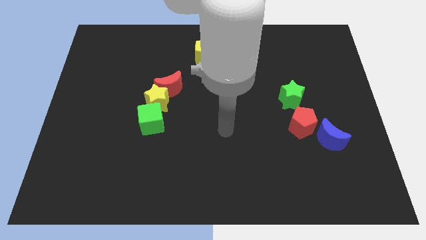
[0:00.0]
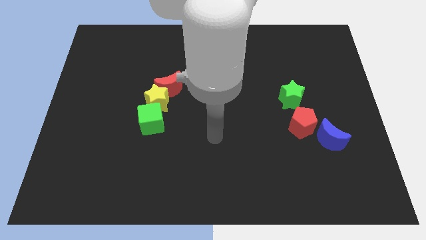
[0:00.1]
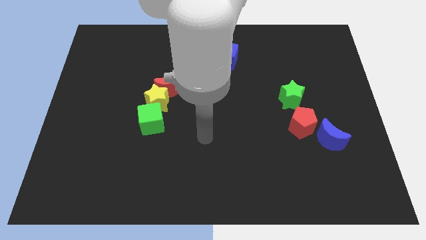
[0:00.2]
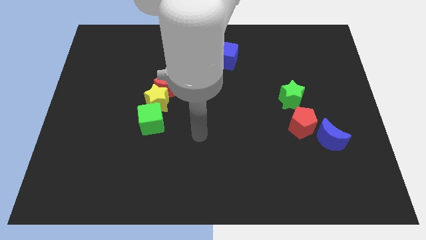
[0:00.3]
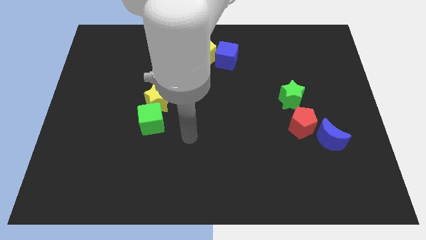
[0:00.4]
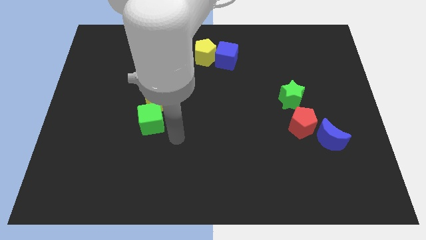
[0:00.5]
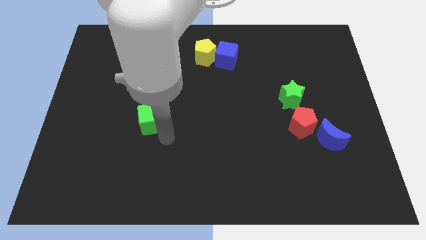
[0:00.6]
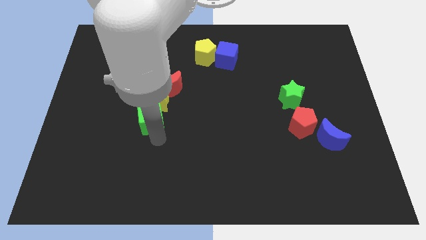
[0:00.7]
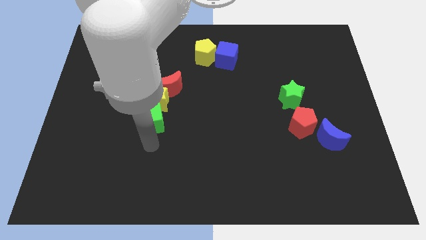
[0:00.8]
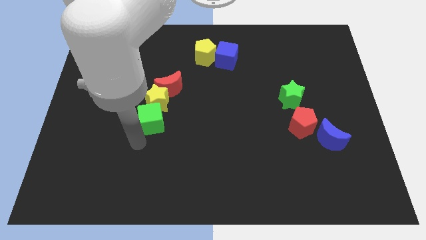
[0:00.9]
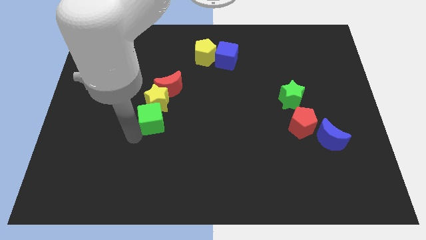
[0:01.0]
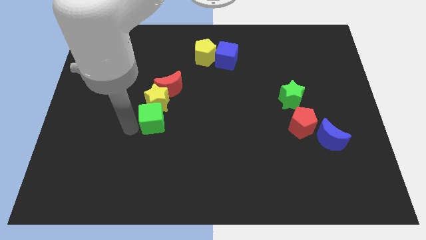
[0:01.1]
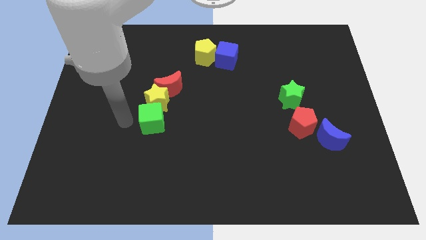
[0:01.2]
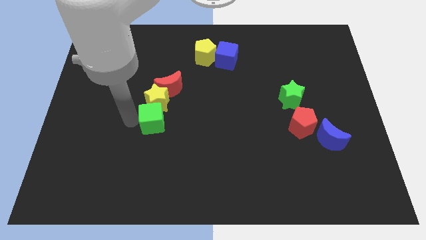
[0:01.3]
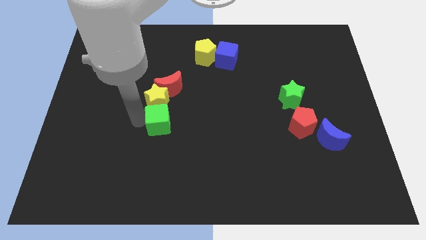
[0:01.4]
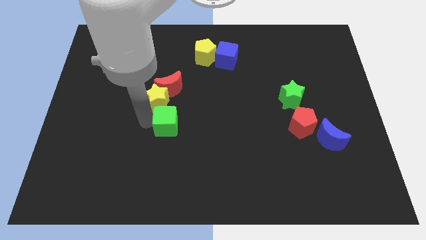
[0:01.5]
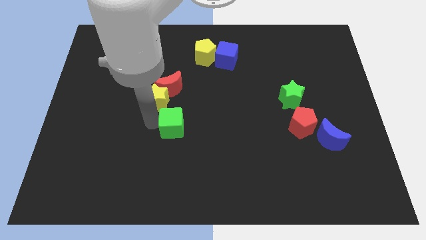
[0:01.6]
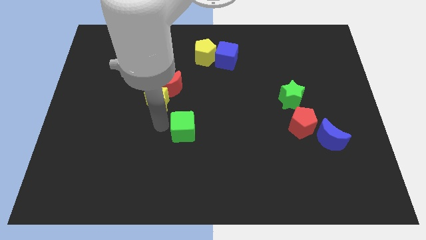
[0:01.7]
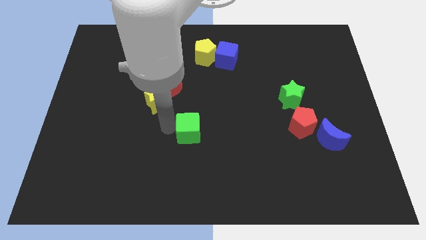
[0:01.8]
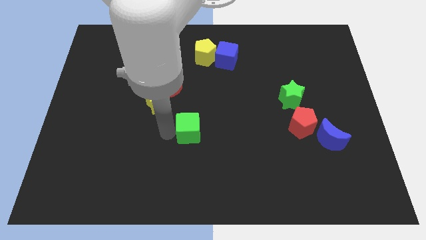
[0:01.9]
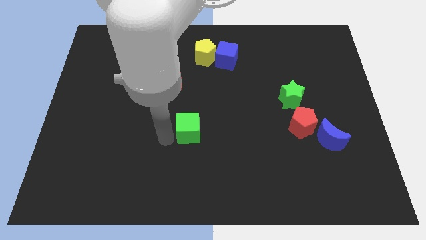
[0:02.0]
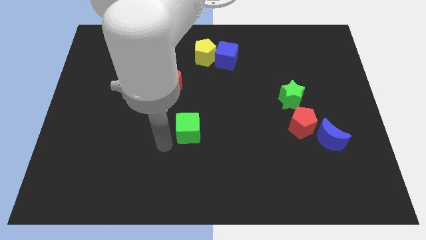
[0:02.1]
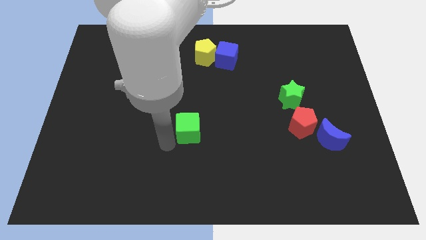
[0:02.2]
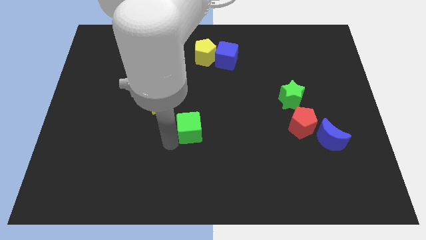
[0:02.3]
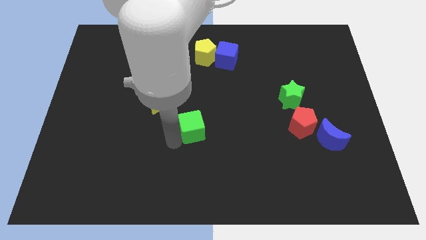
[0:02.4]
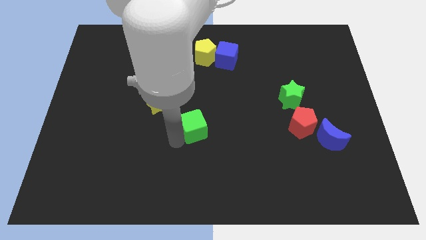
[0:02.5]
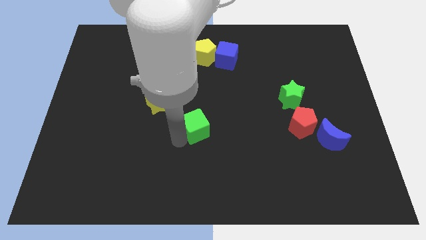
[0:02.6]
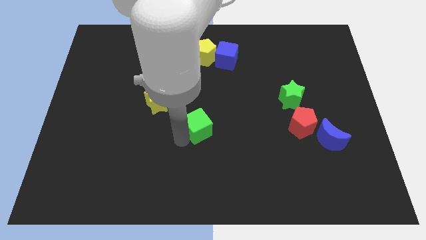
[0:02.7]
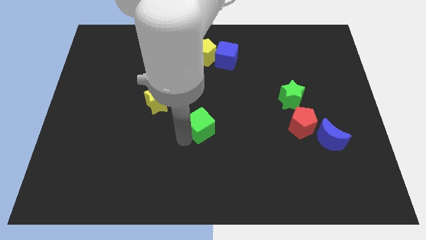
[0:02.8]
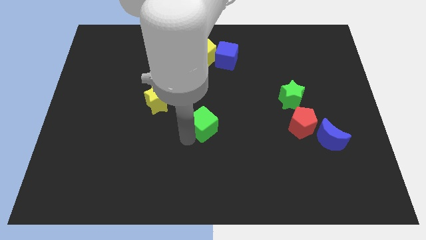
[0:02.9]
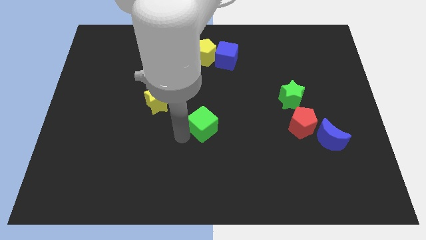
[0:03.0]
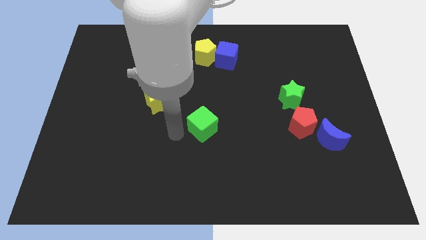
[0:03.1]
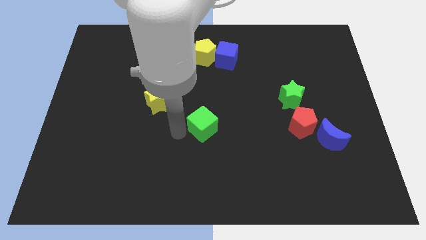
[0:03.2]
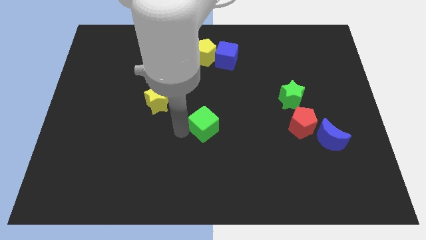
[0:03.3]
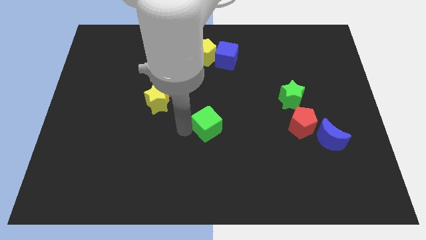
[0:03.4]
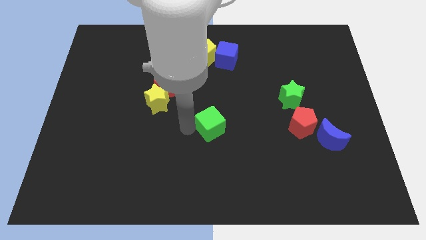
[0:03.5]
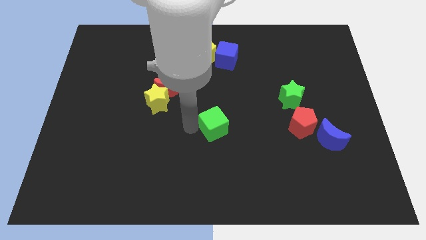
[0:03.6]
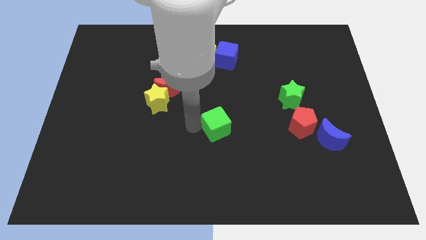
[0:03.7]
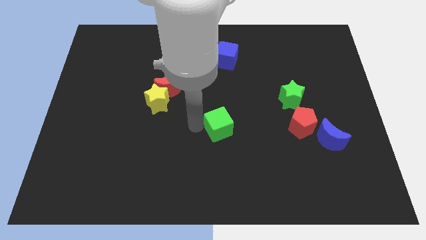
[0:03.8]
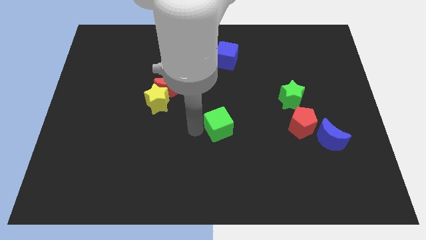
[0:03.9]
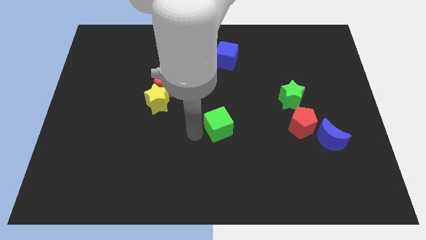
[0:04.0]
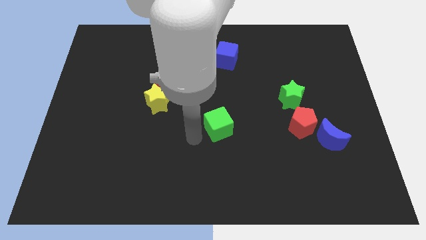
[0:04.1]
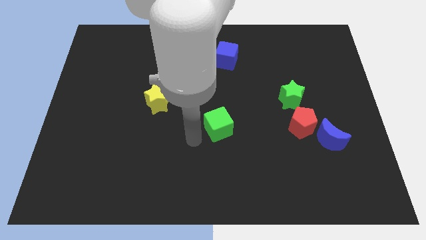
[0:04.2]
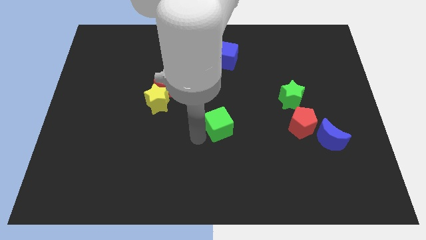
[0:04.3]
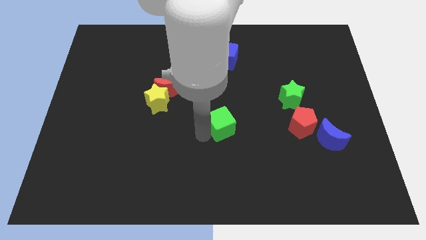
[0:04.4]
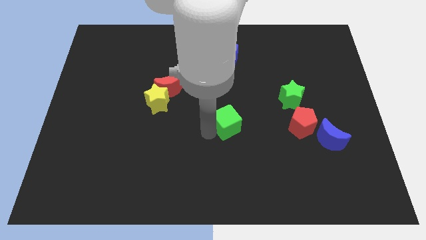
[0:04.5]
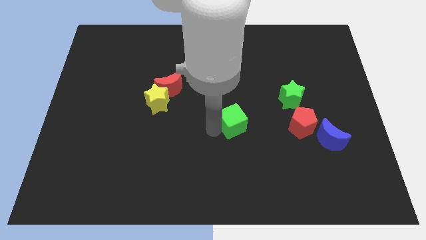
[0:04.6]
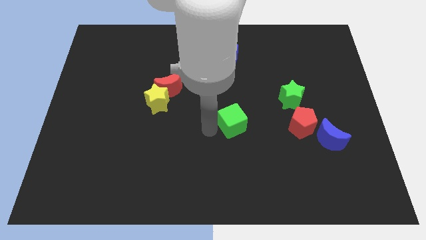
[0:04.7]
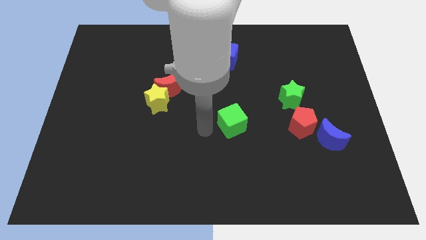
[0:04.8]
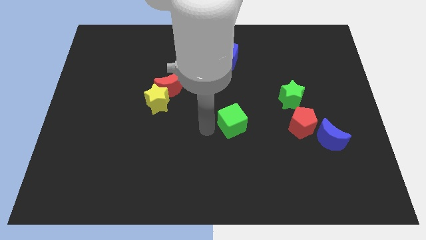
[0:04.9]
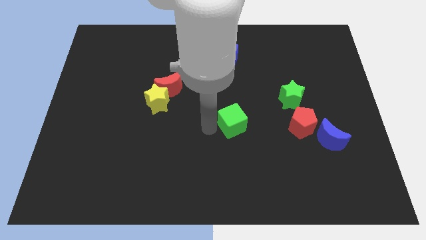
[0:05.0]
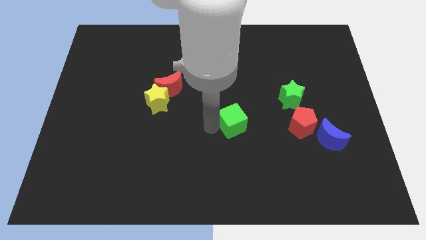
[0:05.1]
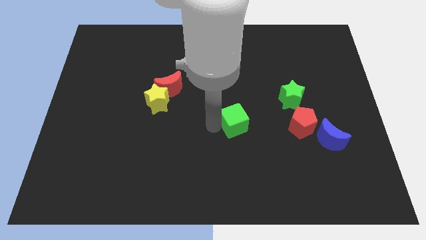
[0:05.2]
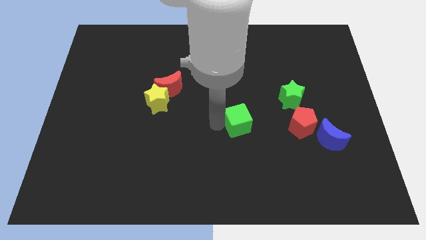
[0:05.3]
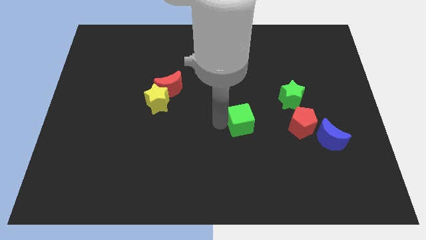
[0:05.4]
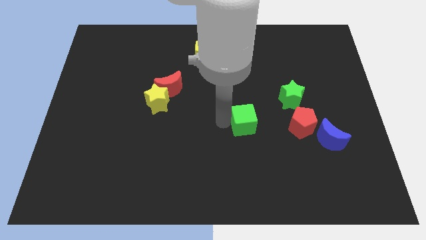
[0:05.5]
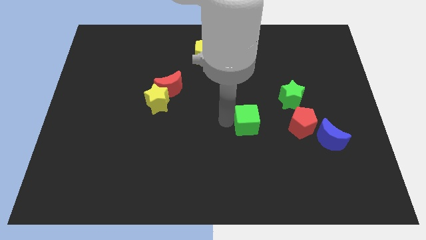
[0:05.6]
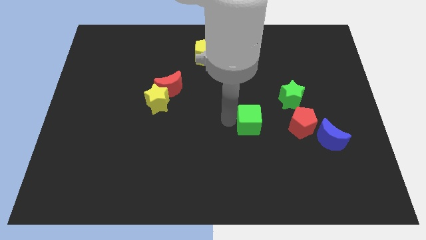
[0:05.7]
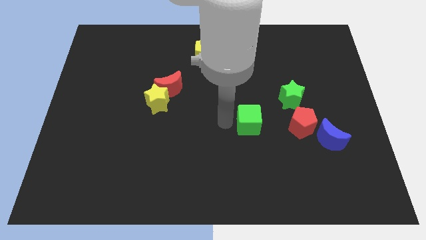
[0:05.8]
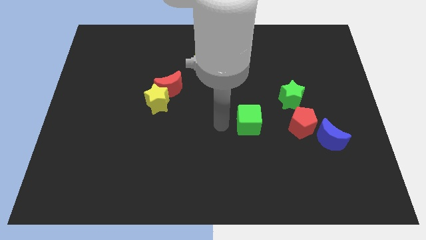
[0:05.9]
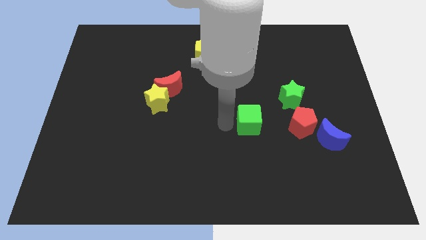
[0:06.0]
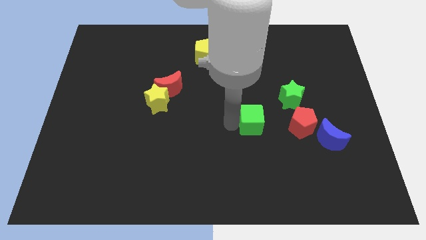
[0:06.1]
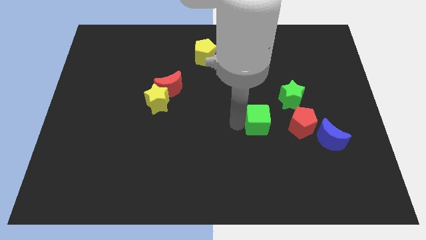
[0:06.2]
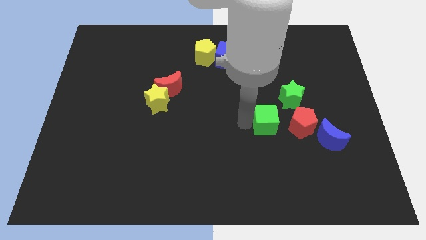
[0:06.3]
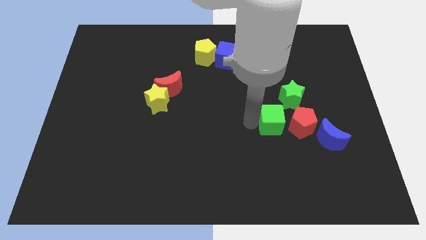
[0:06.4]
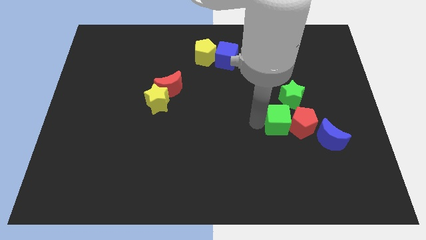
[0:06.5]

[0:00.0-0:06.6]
put the green cube close to the red pentagon

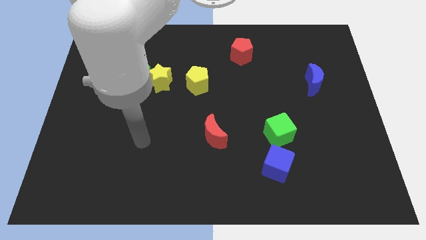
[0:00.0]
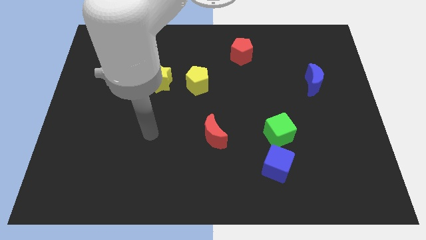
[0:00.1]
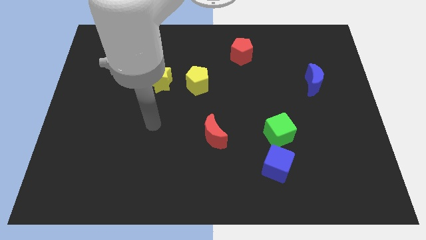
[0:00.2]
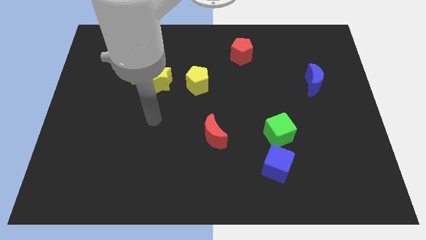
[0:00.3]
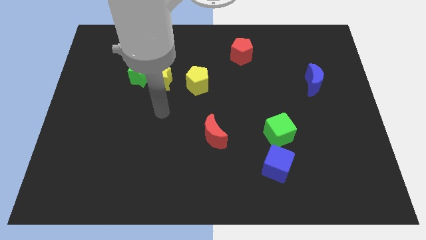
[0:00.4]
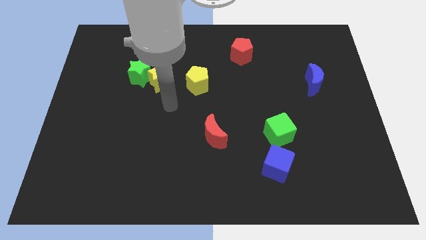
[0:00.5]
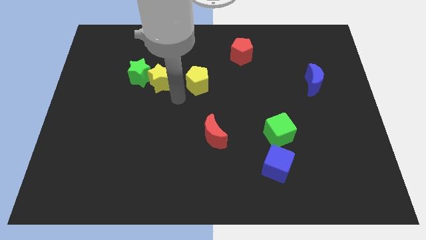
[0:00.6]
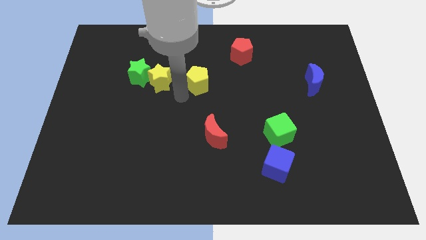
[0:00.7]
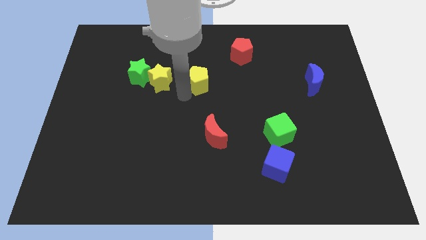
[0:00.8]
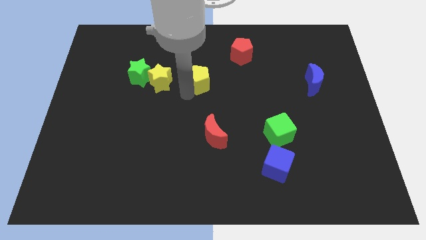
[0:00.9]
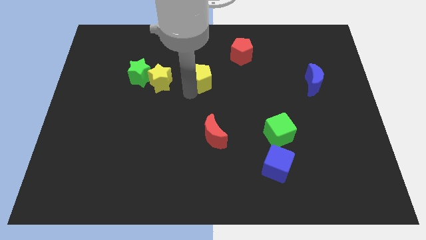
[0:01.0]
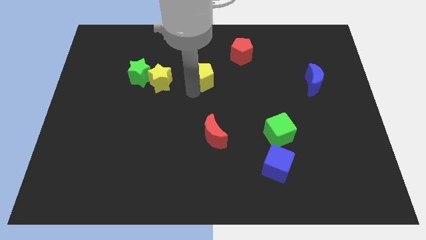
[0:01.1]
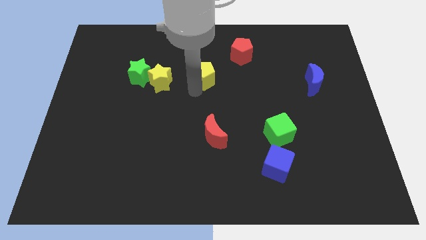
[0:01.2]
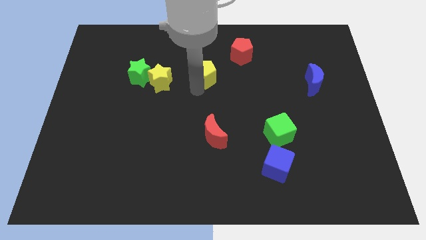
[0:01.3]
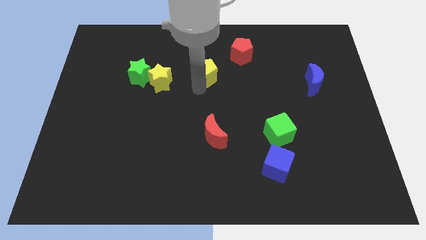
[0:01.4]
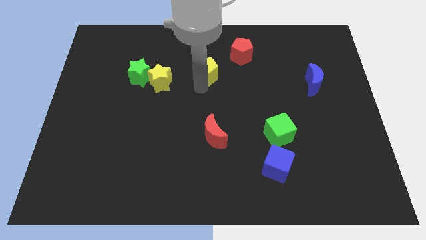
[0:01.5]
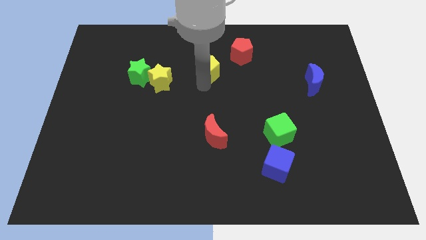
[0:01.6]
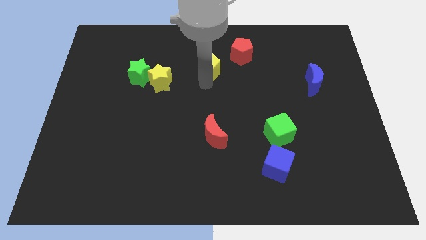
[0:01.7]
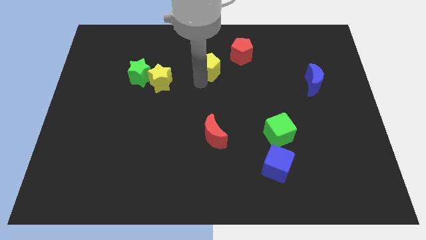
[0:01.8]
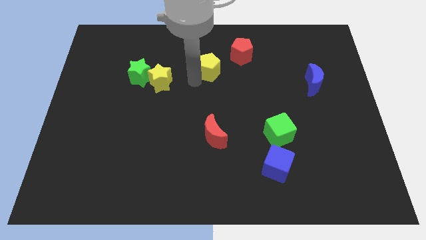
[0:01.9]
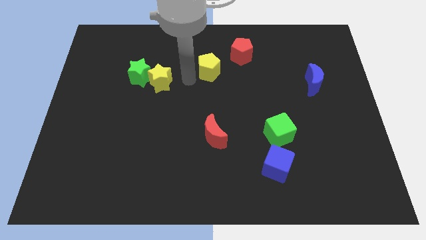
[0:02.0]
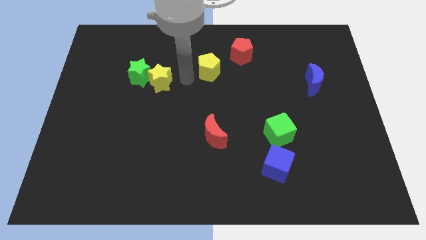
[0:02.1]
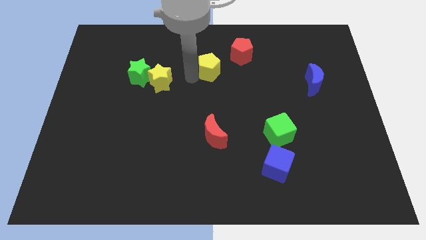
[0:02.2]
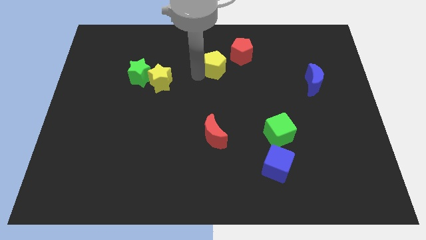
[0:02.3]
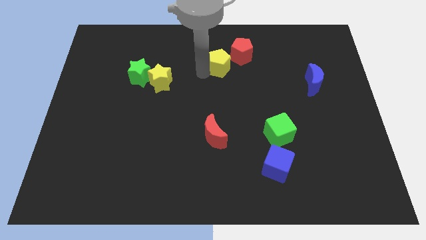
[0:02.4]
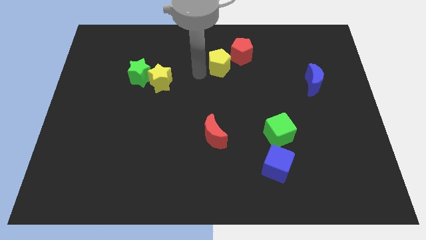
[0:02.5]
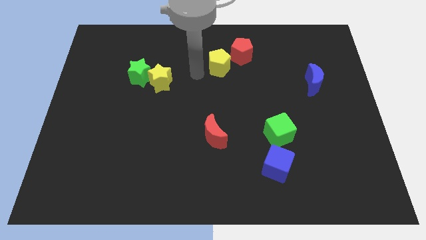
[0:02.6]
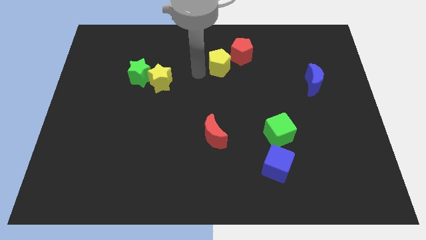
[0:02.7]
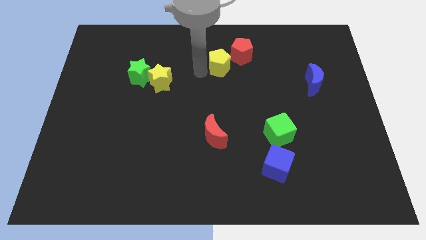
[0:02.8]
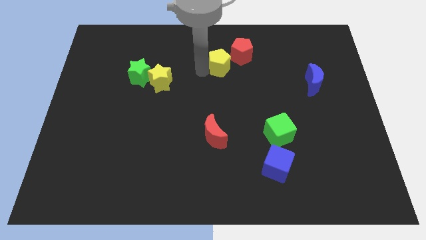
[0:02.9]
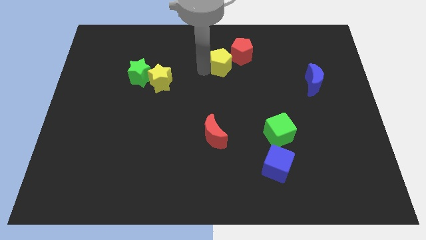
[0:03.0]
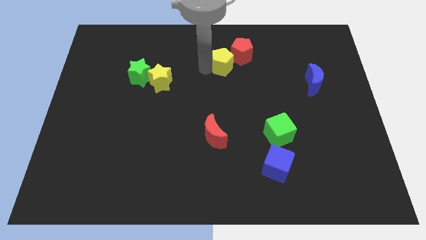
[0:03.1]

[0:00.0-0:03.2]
slide the yellow pentagon towards the red pentagon
